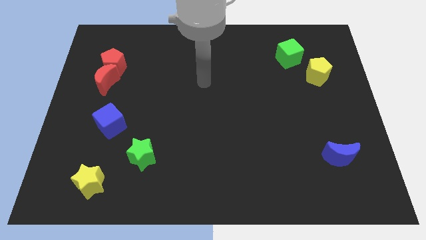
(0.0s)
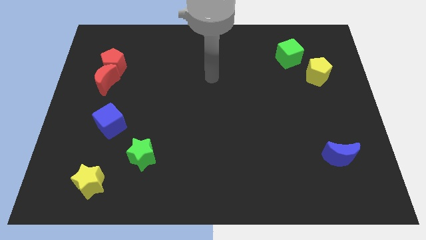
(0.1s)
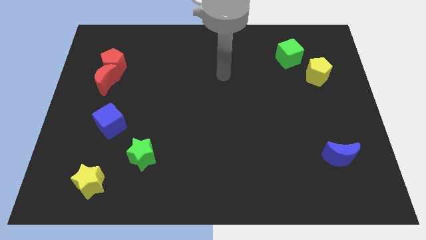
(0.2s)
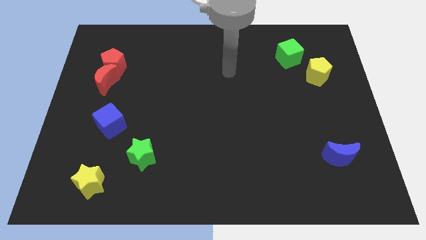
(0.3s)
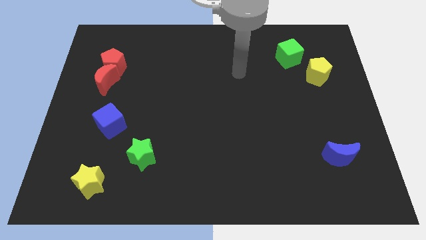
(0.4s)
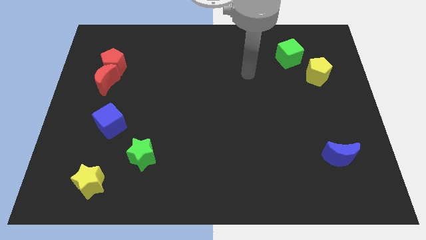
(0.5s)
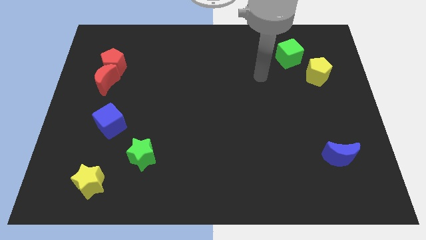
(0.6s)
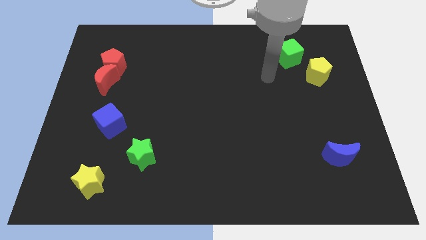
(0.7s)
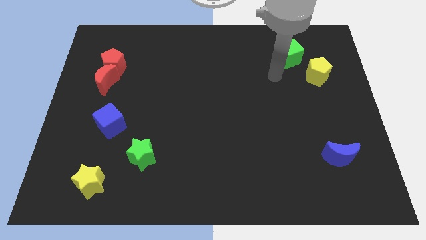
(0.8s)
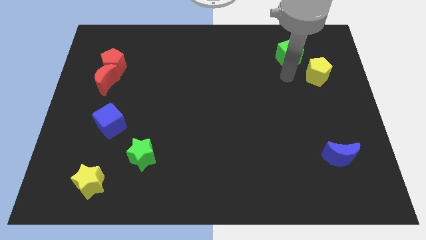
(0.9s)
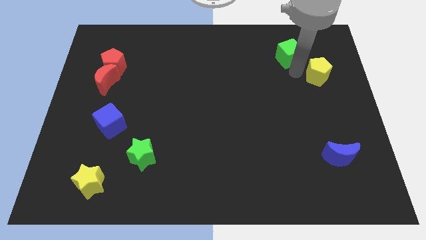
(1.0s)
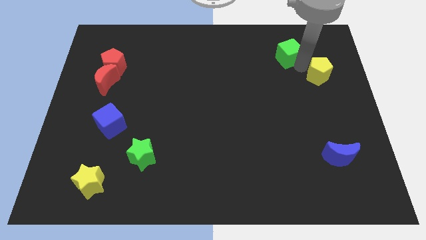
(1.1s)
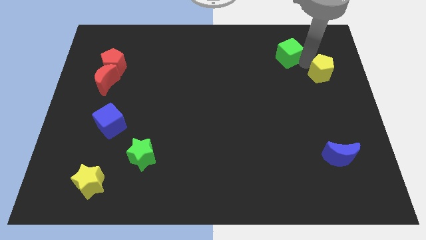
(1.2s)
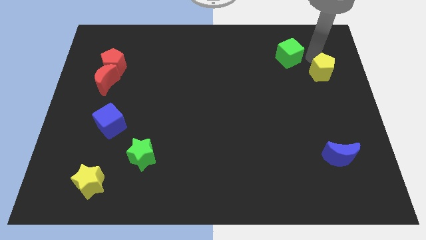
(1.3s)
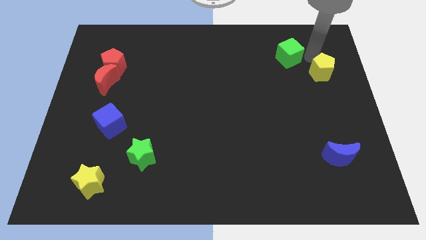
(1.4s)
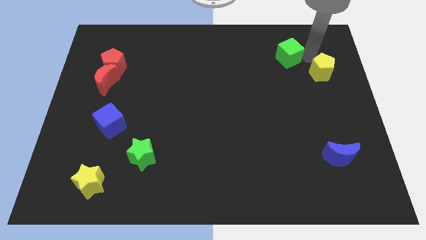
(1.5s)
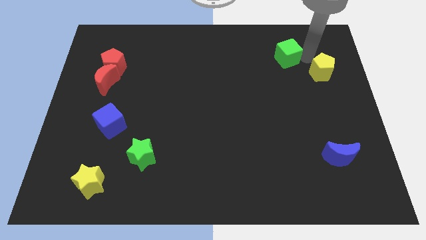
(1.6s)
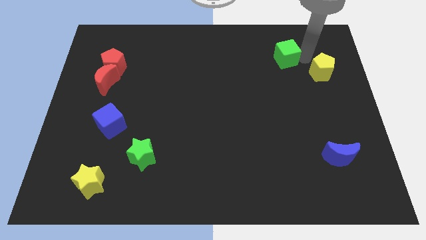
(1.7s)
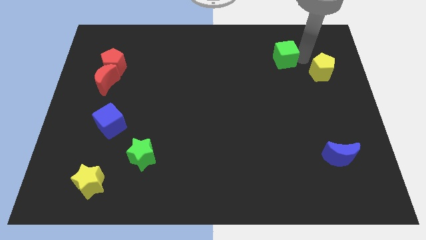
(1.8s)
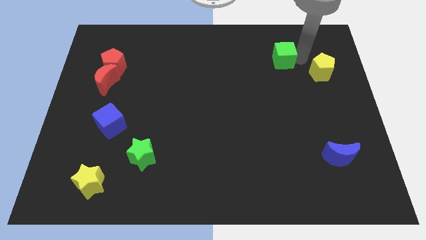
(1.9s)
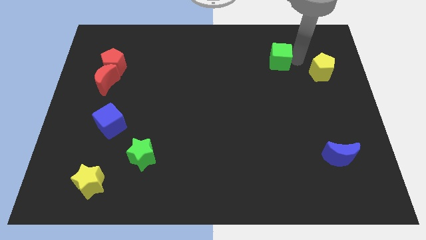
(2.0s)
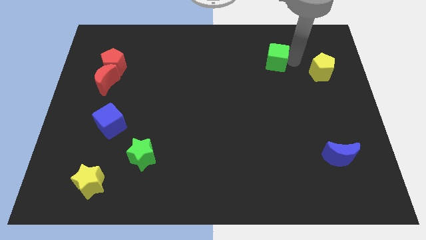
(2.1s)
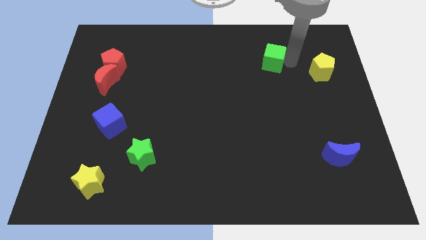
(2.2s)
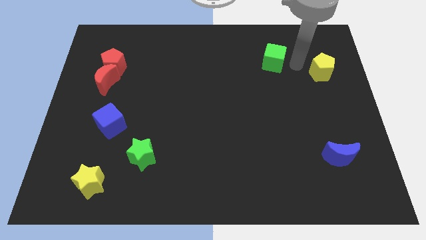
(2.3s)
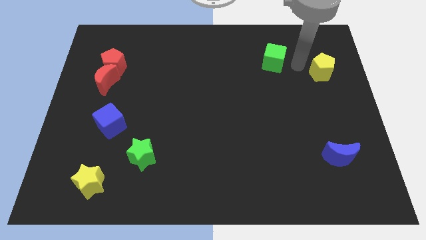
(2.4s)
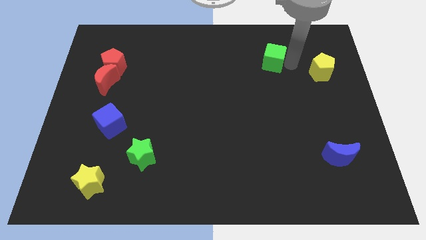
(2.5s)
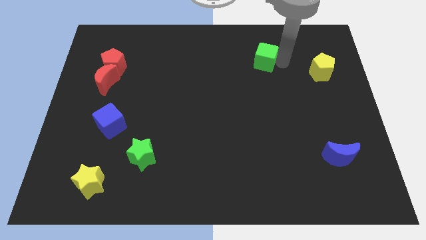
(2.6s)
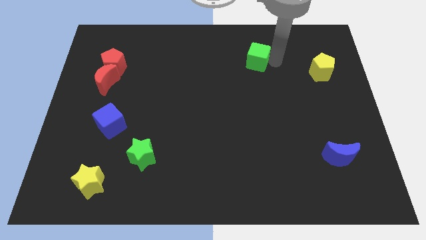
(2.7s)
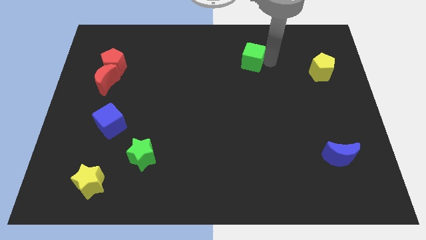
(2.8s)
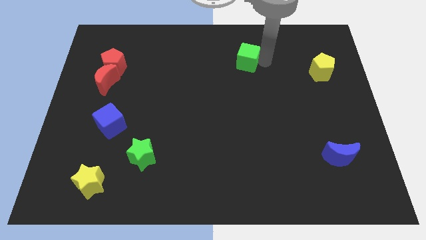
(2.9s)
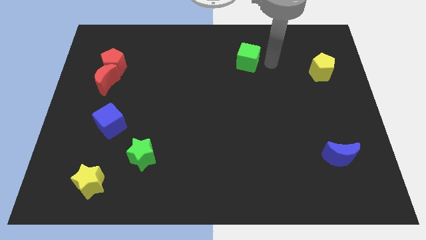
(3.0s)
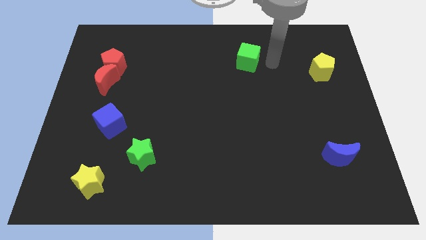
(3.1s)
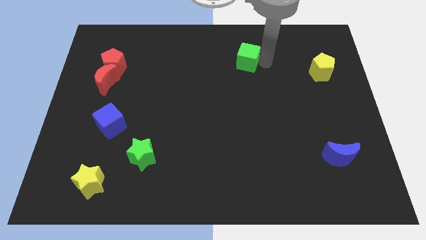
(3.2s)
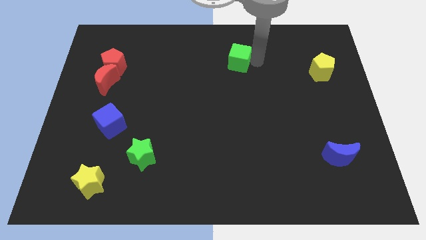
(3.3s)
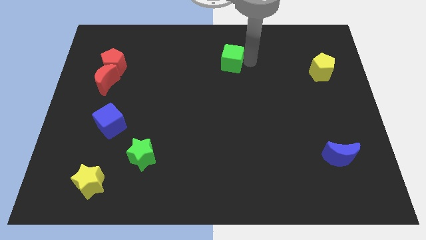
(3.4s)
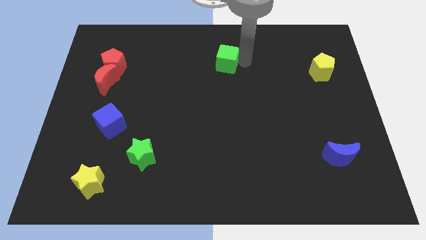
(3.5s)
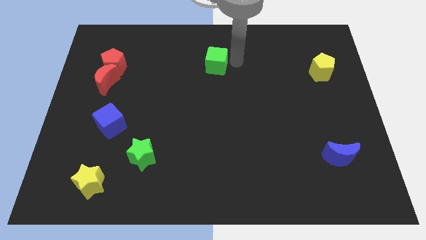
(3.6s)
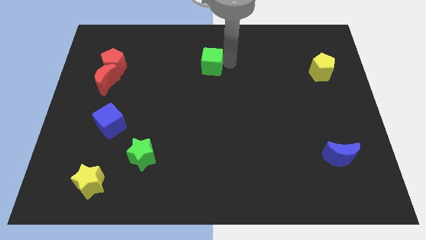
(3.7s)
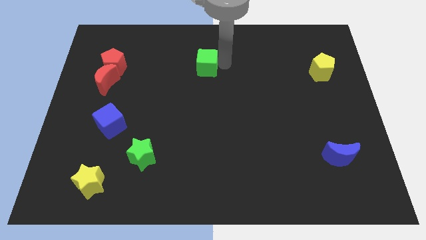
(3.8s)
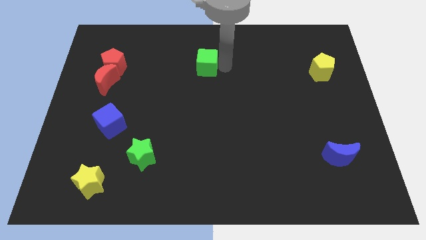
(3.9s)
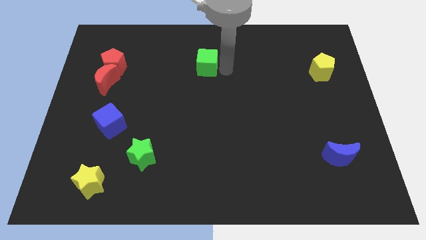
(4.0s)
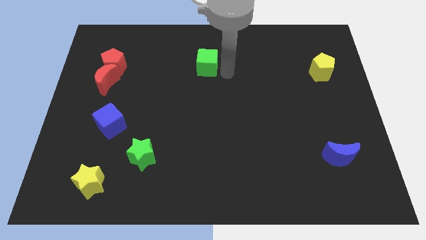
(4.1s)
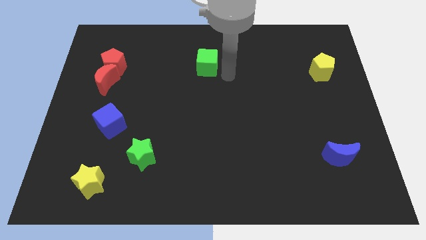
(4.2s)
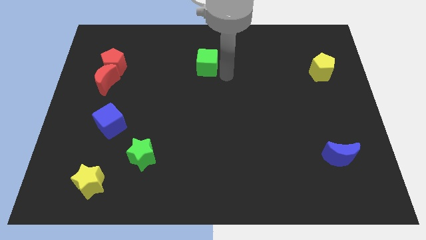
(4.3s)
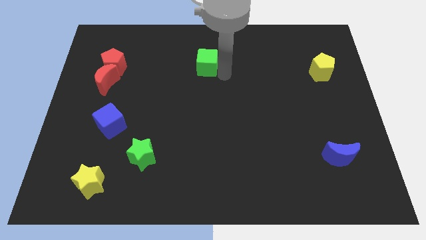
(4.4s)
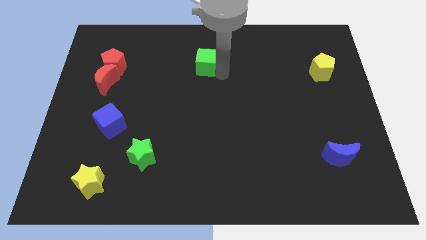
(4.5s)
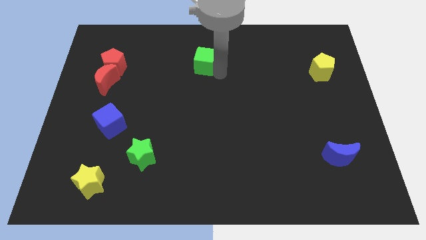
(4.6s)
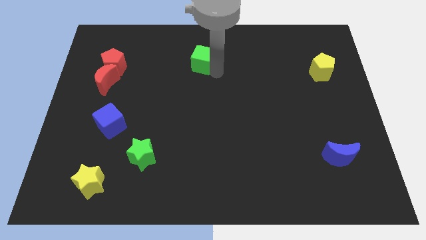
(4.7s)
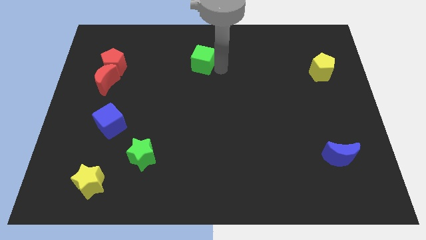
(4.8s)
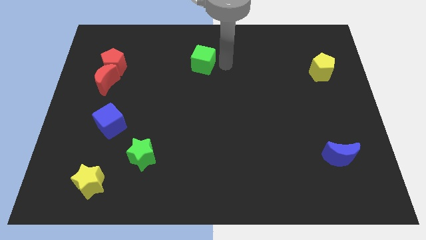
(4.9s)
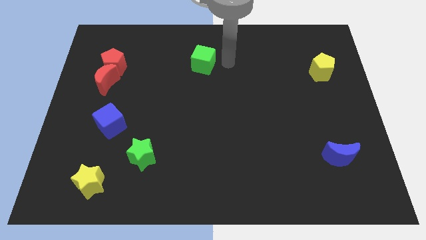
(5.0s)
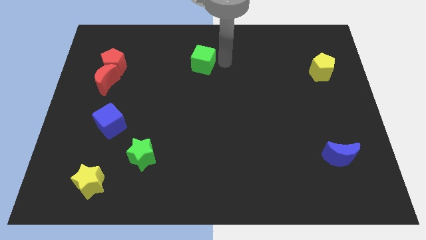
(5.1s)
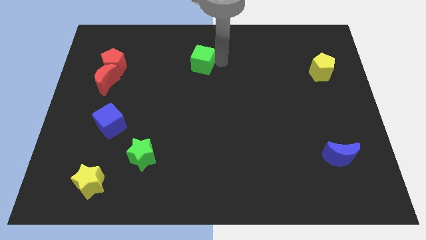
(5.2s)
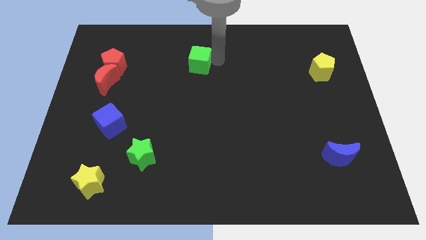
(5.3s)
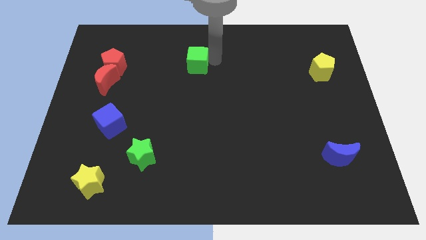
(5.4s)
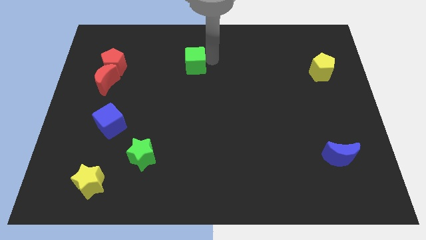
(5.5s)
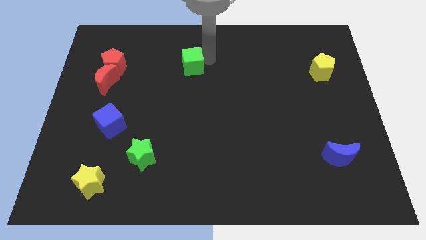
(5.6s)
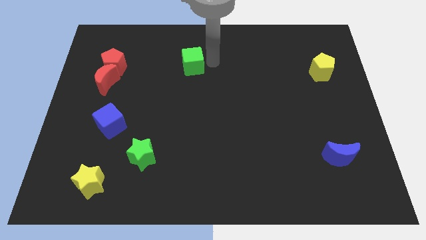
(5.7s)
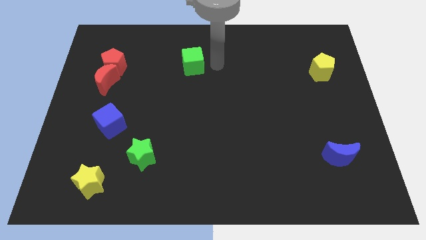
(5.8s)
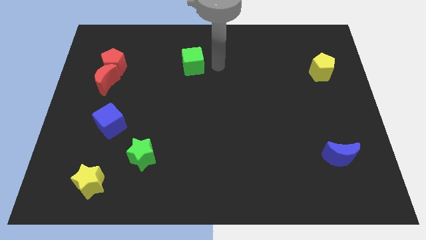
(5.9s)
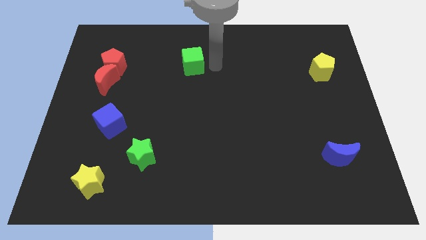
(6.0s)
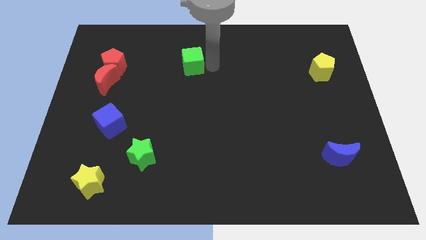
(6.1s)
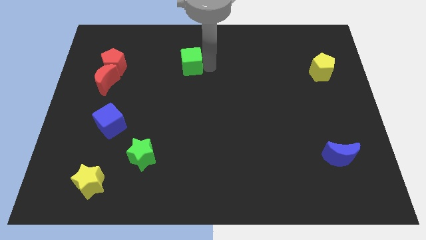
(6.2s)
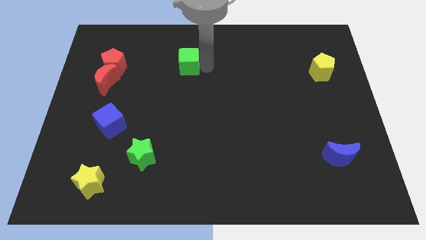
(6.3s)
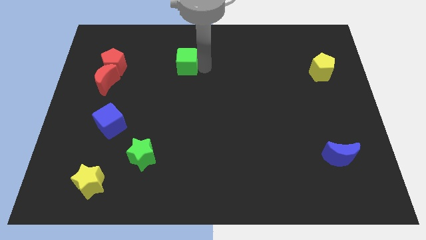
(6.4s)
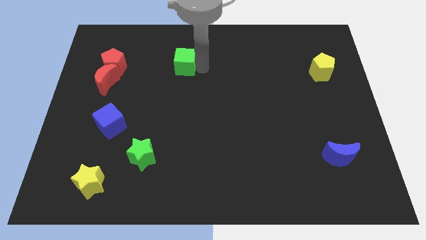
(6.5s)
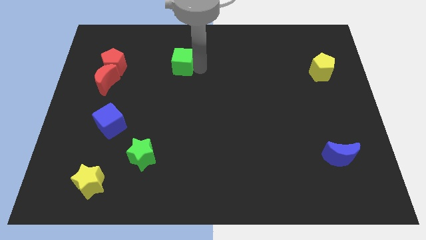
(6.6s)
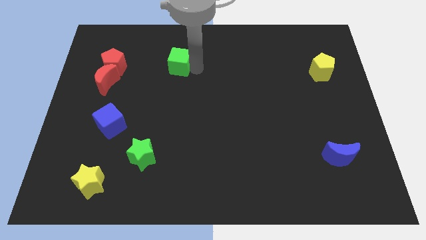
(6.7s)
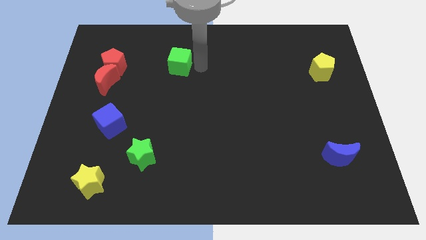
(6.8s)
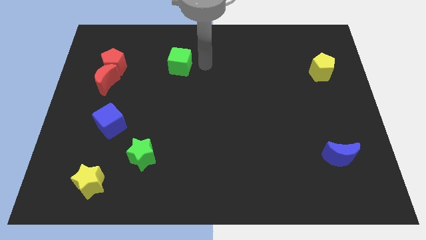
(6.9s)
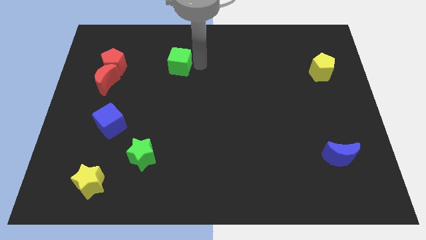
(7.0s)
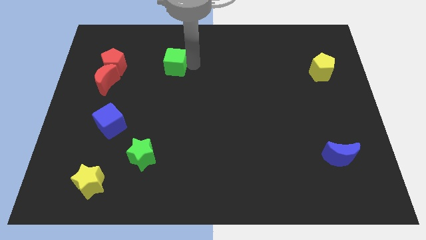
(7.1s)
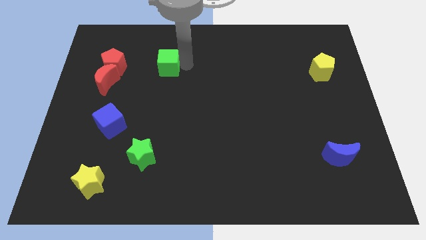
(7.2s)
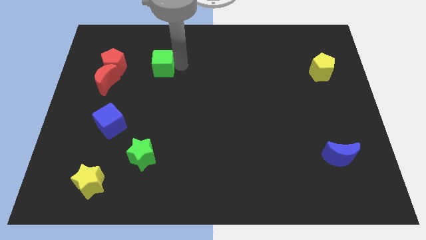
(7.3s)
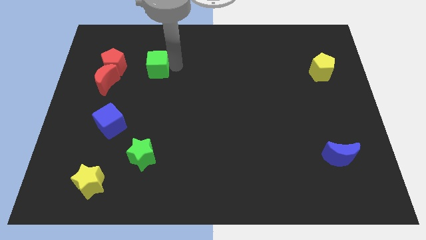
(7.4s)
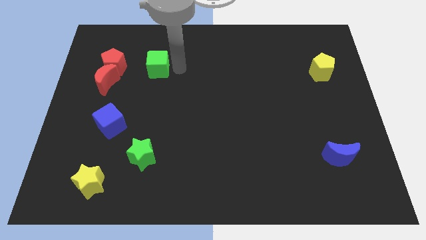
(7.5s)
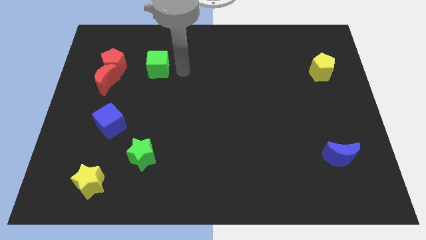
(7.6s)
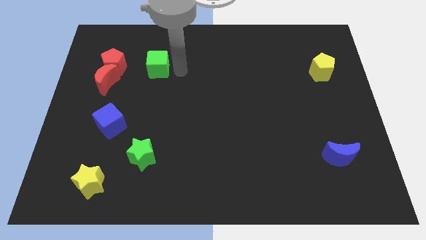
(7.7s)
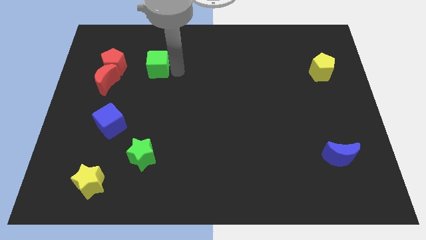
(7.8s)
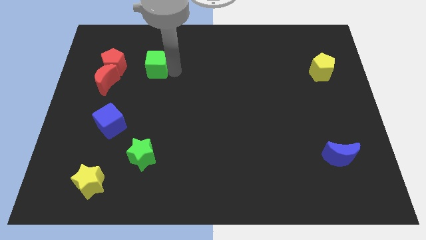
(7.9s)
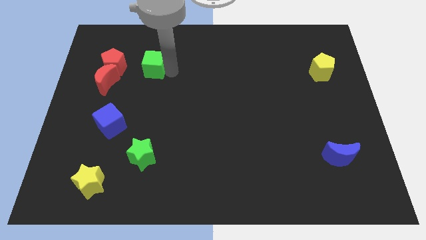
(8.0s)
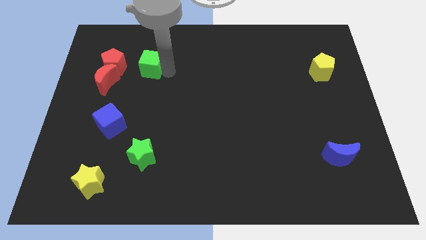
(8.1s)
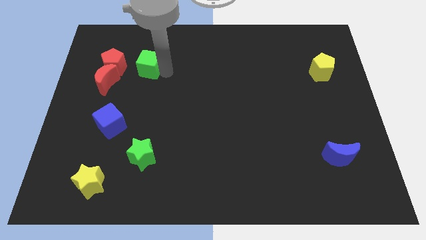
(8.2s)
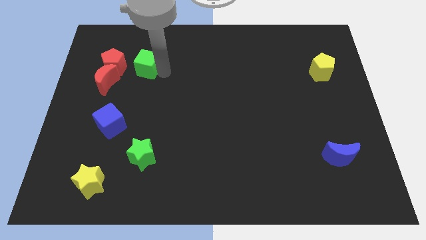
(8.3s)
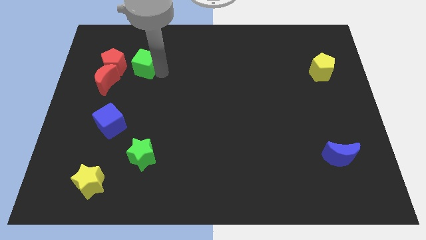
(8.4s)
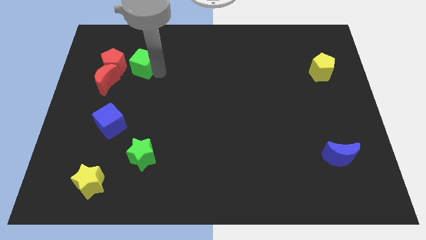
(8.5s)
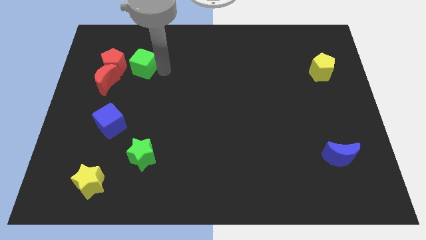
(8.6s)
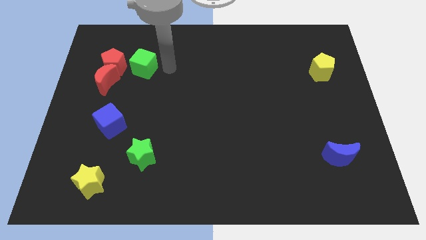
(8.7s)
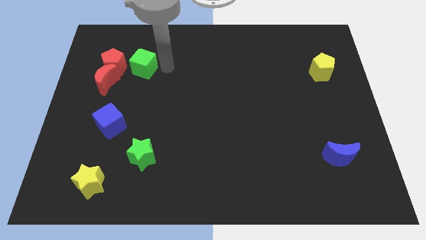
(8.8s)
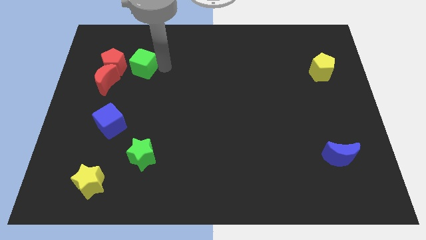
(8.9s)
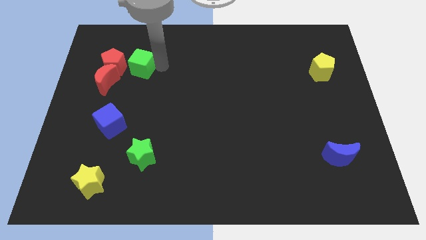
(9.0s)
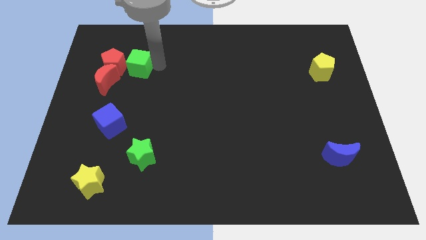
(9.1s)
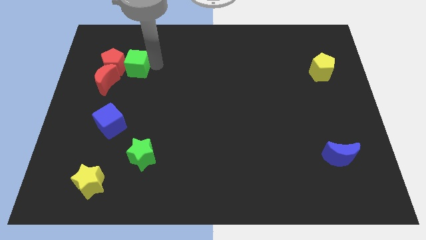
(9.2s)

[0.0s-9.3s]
move the green cube close to the red pentagon
